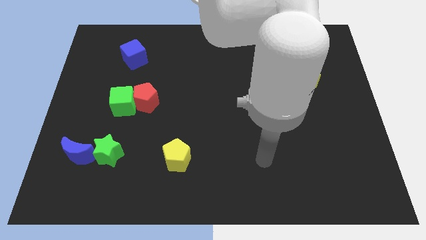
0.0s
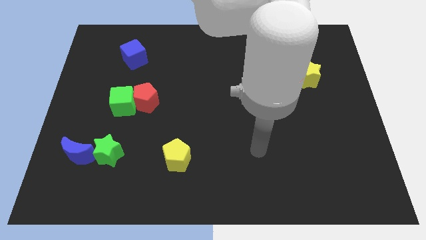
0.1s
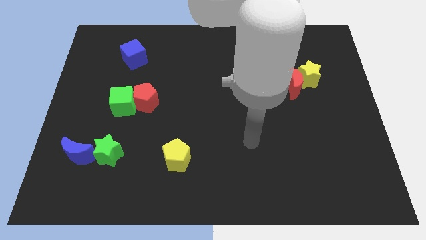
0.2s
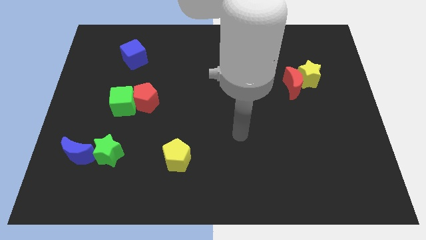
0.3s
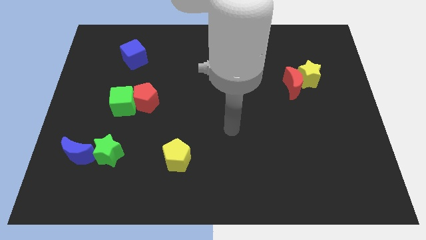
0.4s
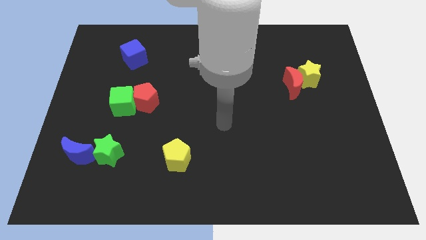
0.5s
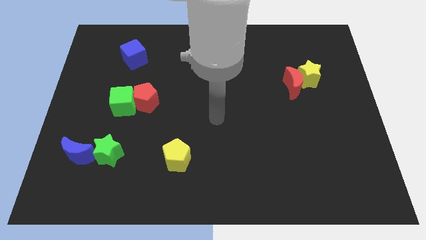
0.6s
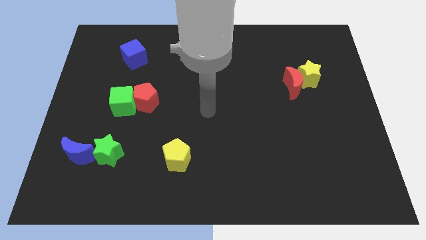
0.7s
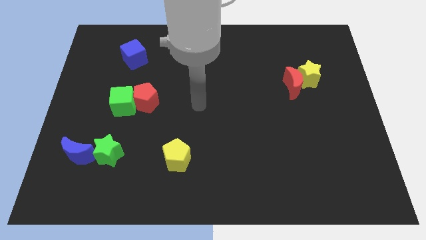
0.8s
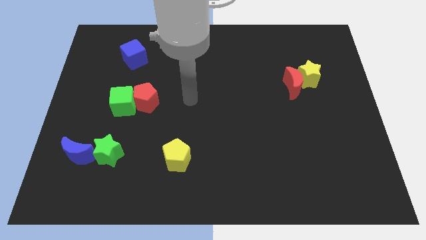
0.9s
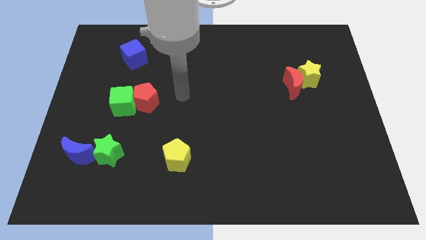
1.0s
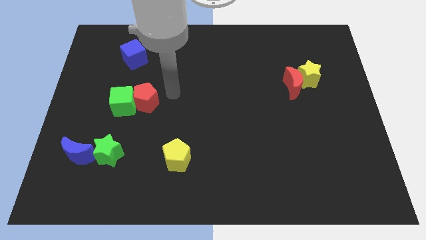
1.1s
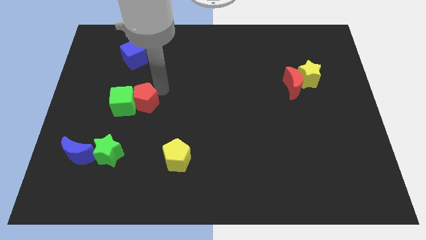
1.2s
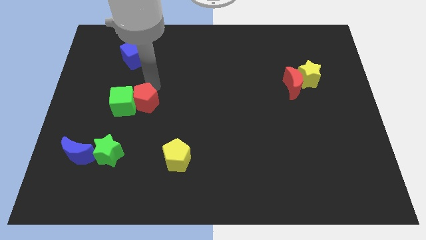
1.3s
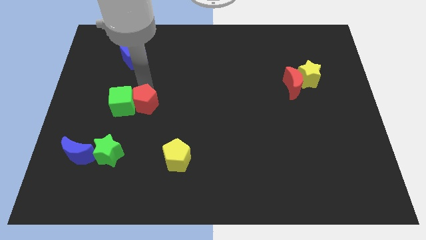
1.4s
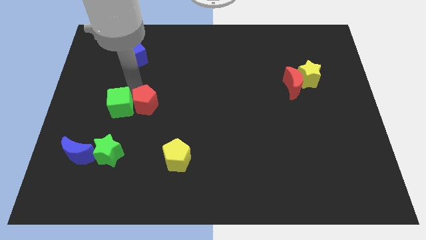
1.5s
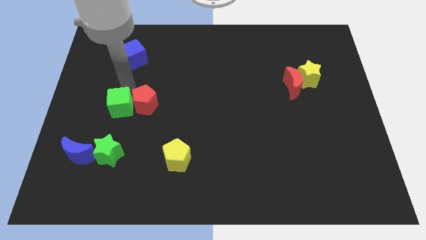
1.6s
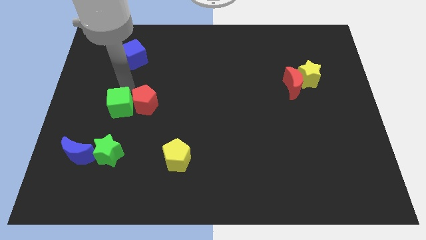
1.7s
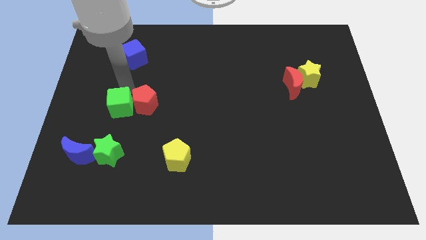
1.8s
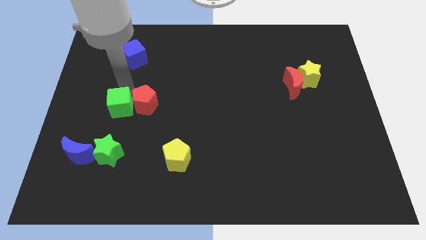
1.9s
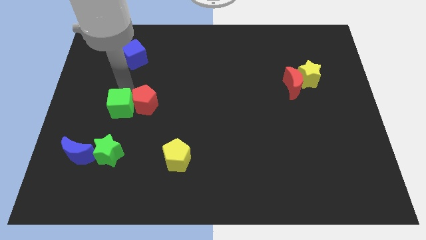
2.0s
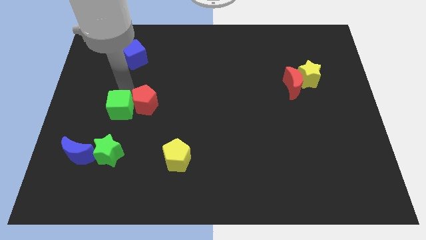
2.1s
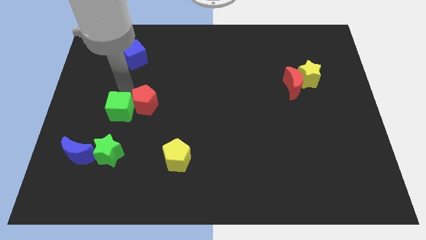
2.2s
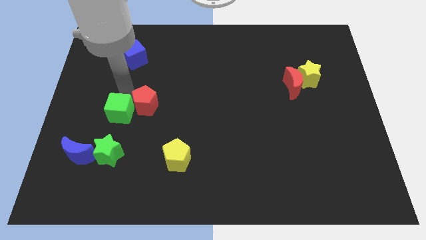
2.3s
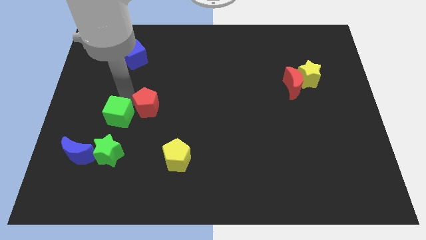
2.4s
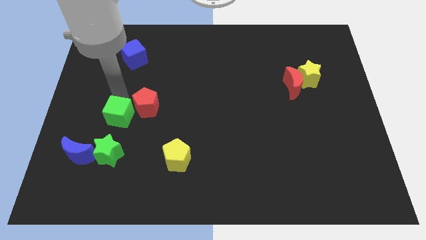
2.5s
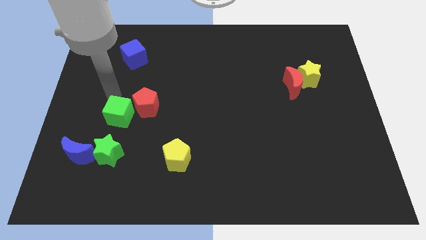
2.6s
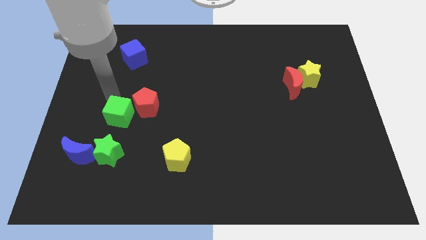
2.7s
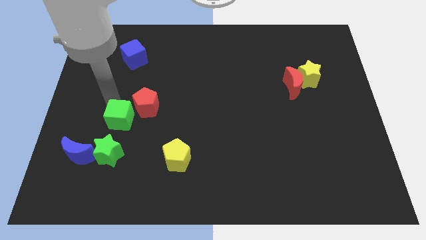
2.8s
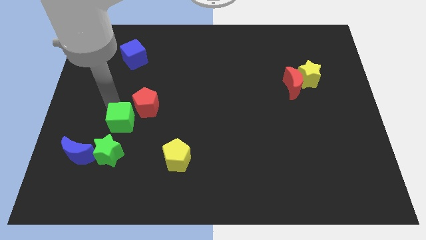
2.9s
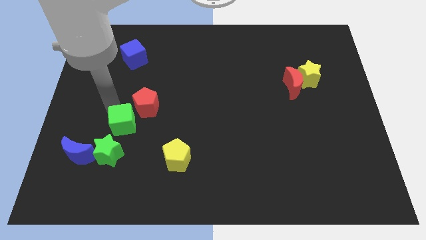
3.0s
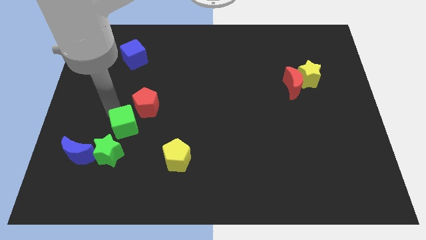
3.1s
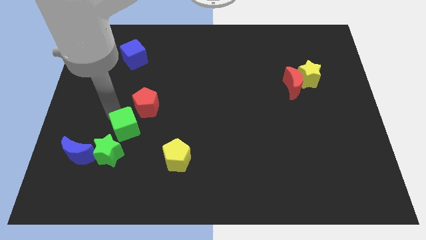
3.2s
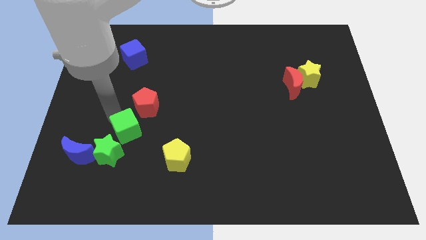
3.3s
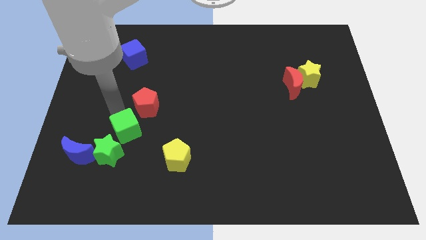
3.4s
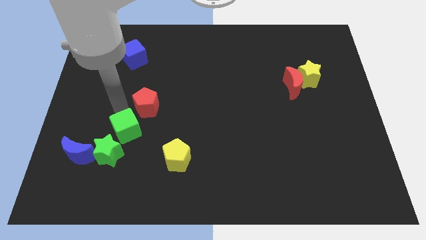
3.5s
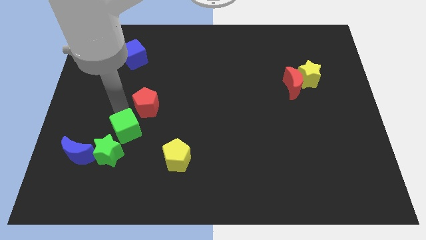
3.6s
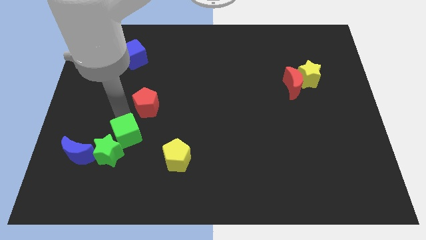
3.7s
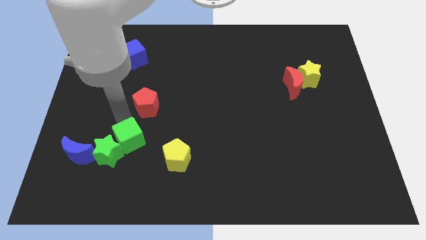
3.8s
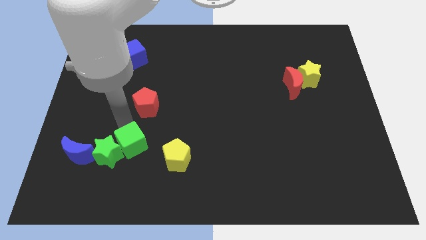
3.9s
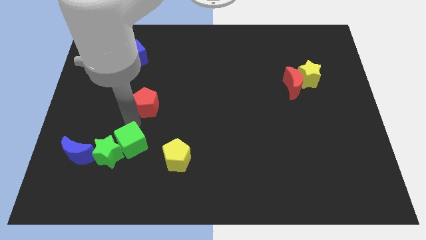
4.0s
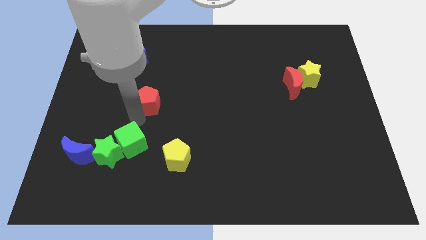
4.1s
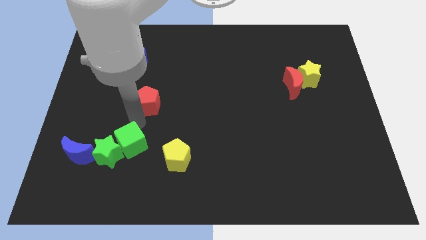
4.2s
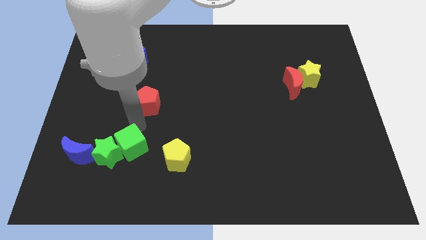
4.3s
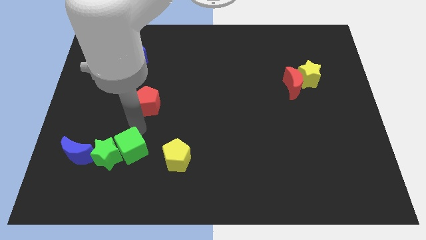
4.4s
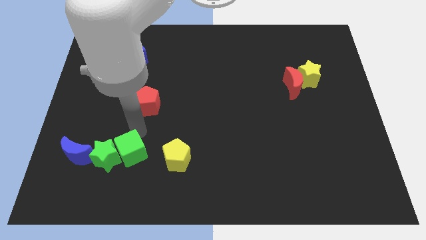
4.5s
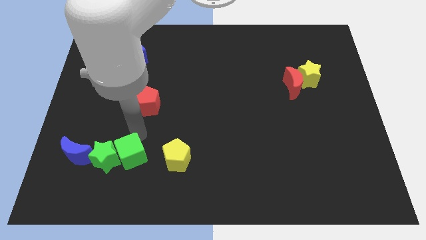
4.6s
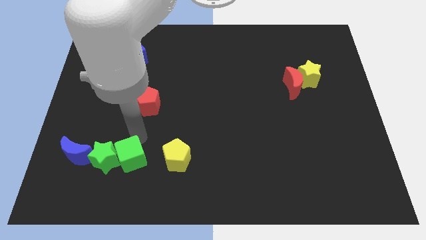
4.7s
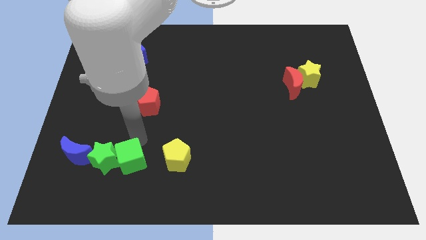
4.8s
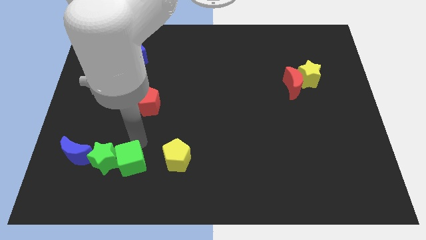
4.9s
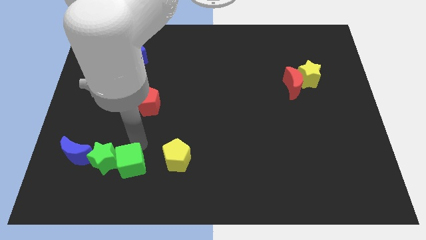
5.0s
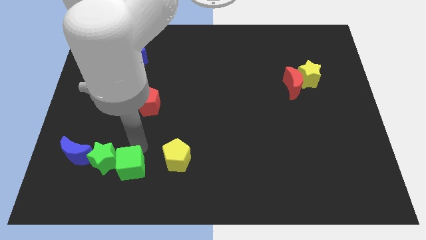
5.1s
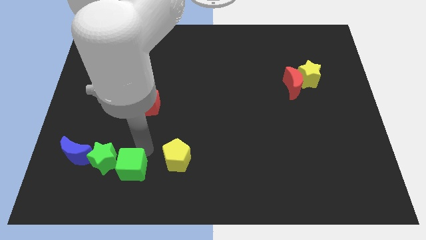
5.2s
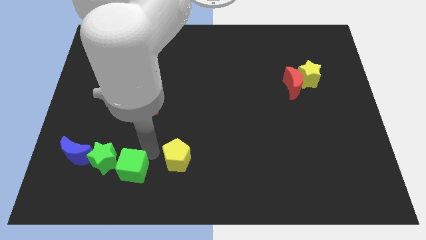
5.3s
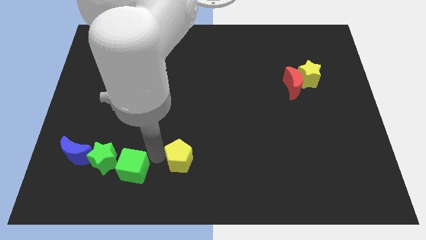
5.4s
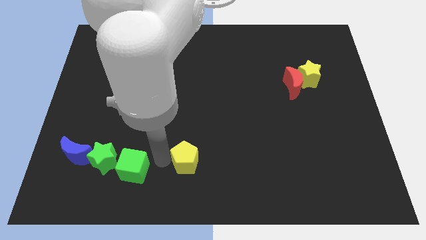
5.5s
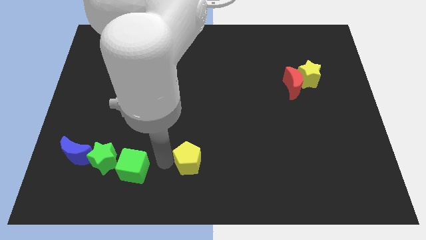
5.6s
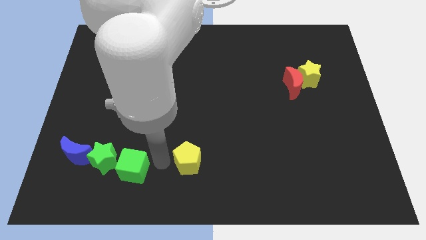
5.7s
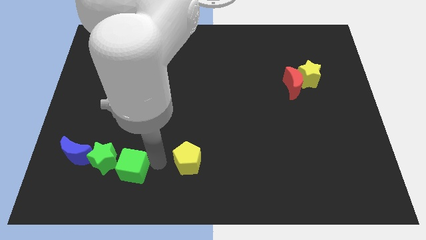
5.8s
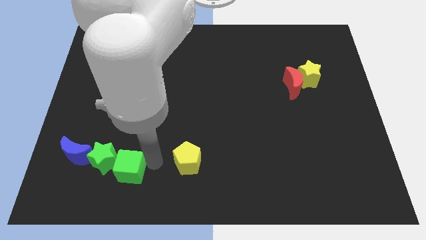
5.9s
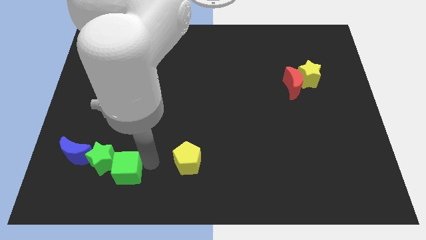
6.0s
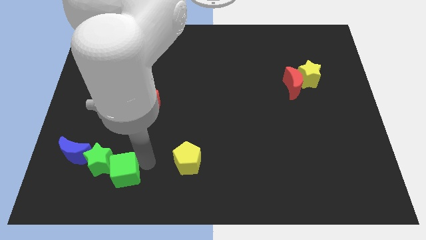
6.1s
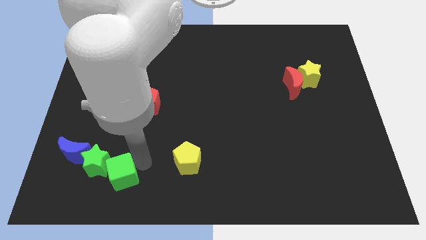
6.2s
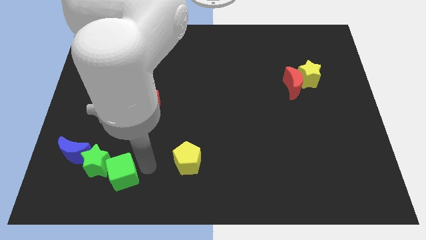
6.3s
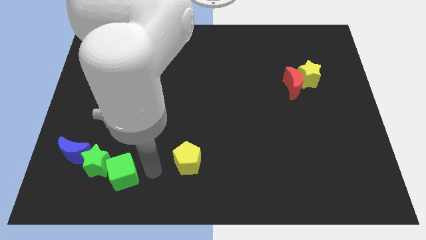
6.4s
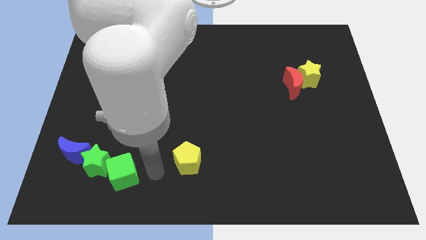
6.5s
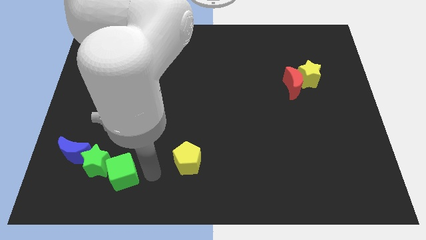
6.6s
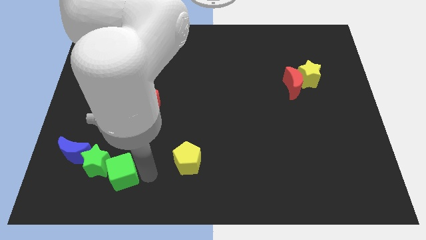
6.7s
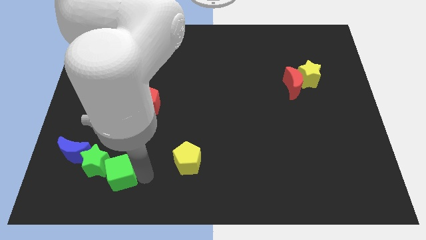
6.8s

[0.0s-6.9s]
put the green cube to the bottom right side of the blue moon

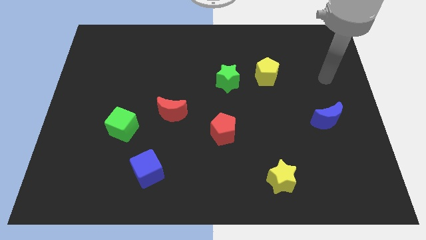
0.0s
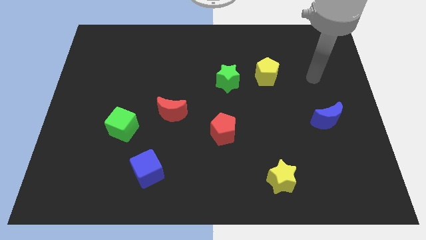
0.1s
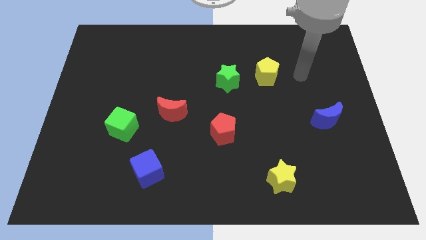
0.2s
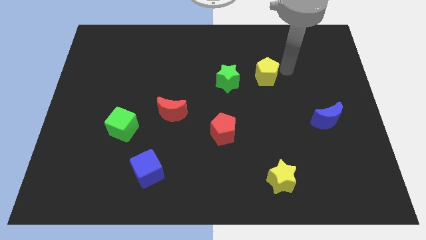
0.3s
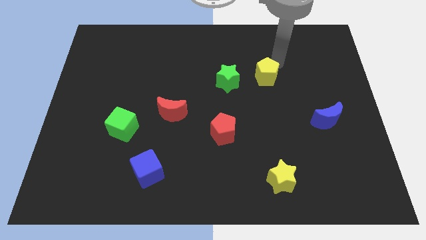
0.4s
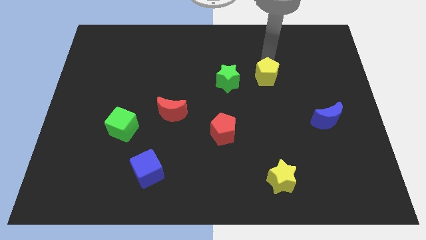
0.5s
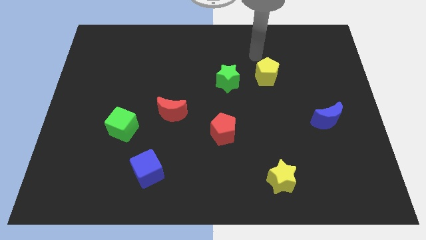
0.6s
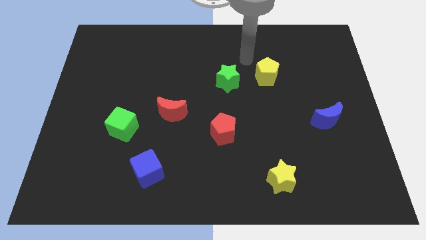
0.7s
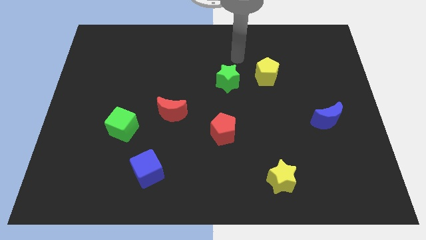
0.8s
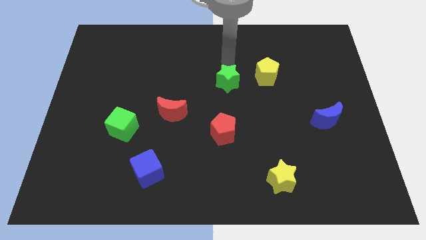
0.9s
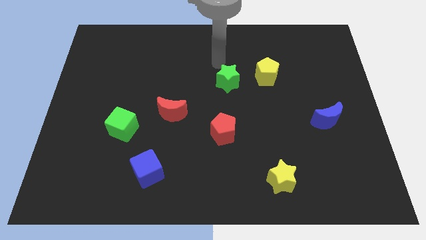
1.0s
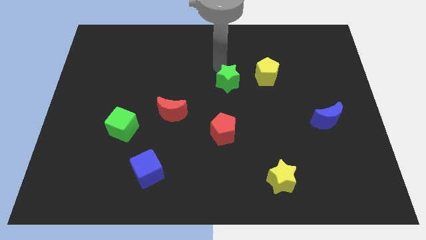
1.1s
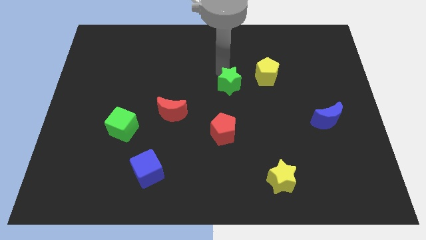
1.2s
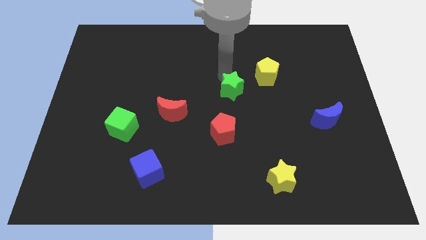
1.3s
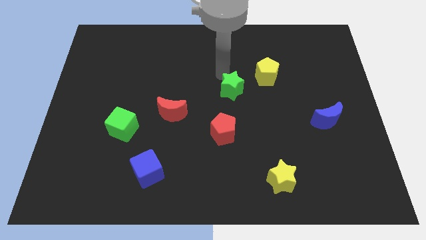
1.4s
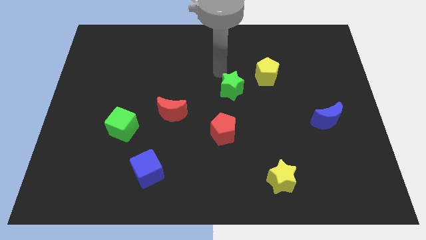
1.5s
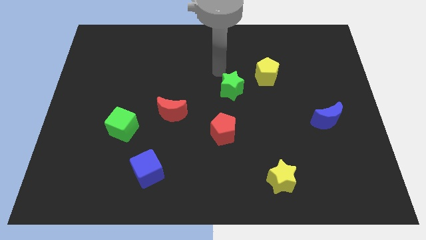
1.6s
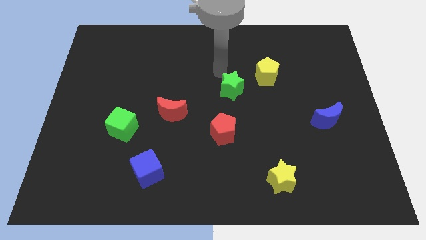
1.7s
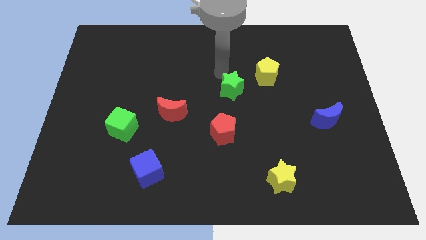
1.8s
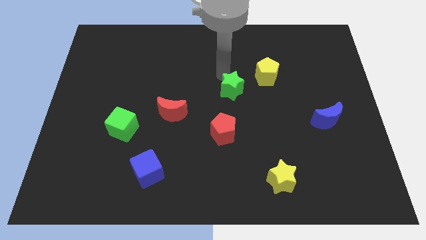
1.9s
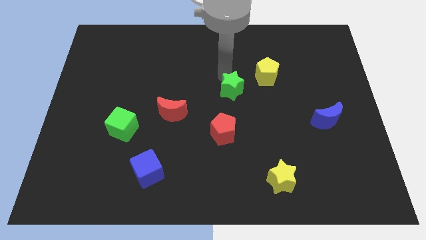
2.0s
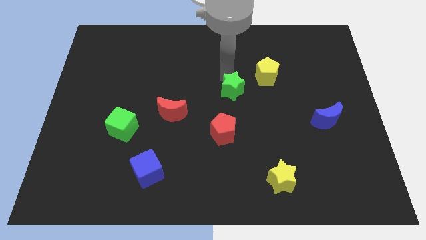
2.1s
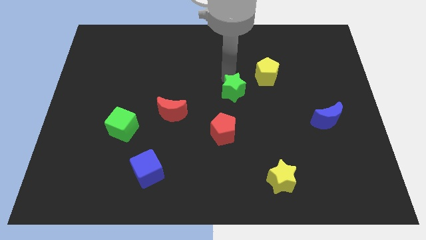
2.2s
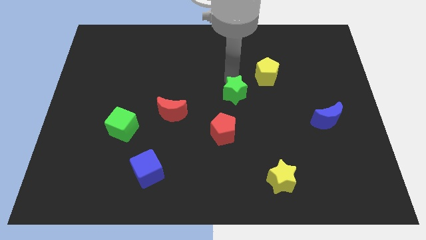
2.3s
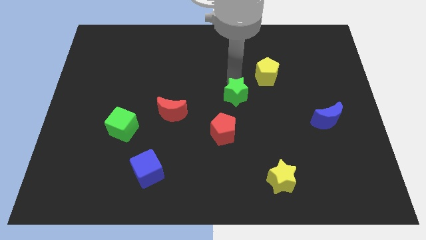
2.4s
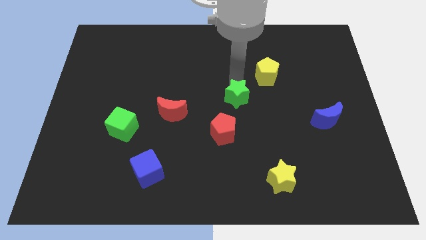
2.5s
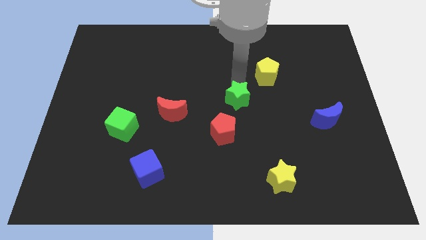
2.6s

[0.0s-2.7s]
move the green star to the top right side of the red pentagon
